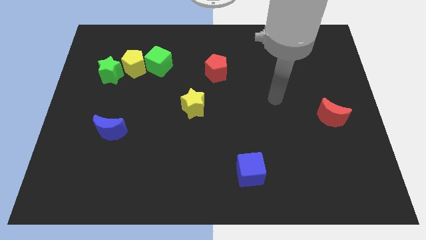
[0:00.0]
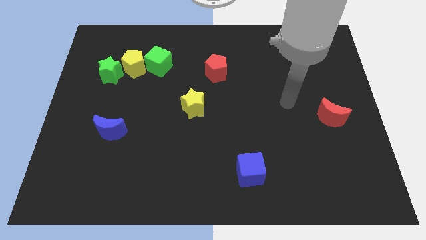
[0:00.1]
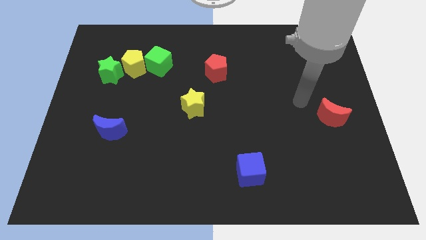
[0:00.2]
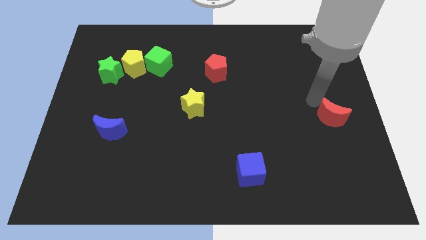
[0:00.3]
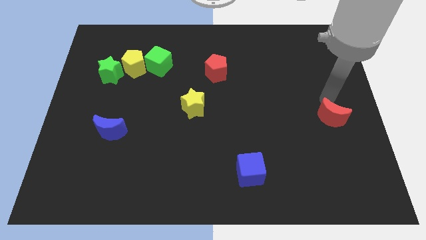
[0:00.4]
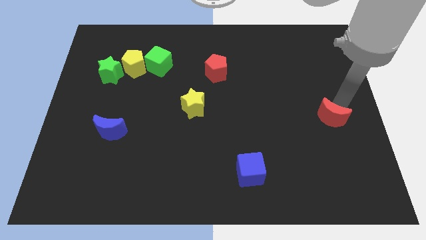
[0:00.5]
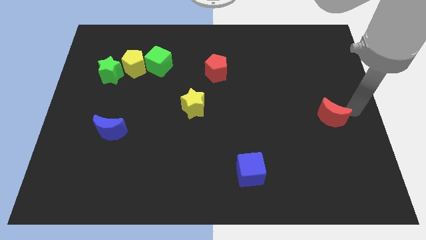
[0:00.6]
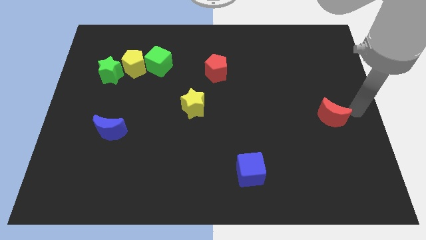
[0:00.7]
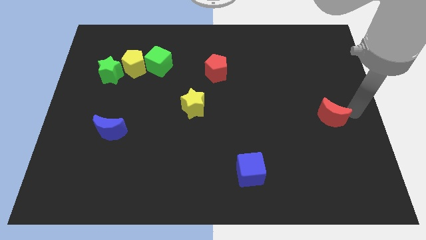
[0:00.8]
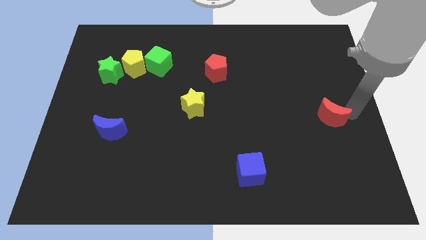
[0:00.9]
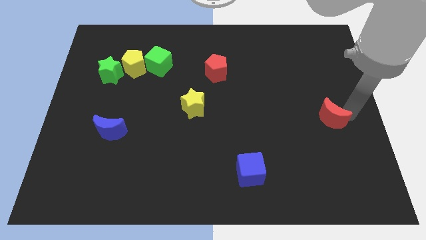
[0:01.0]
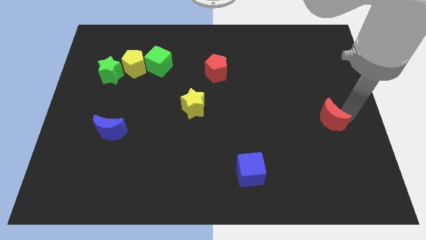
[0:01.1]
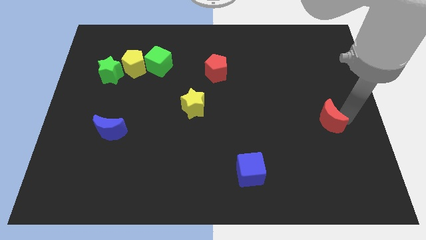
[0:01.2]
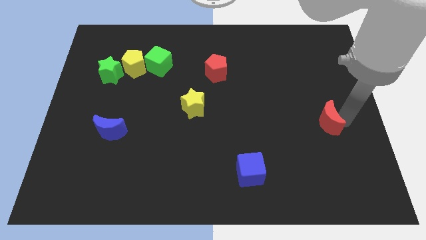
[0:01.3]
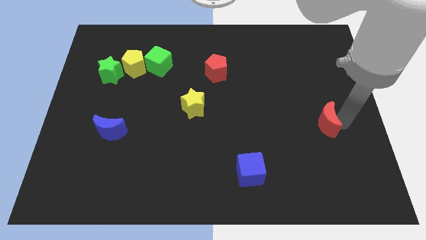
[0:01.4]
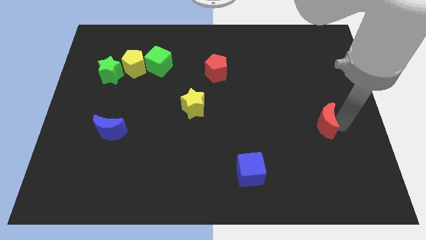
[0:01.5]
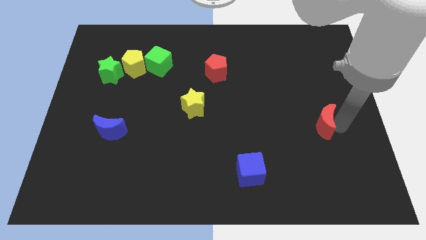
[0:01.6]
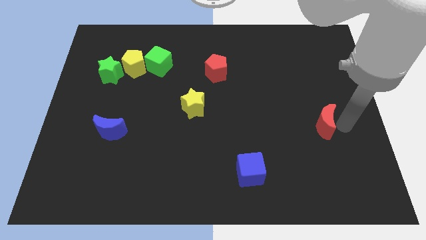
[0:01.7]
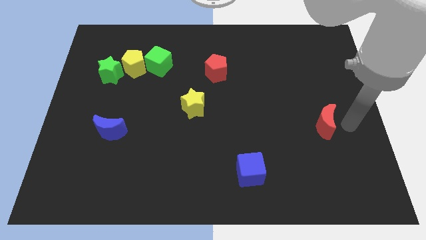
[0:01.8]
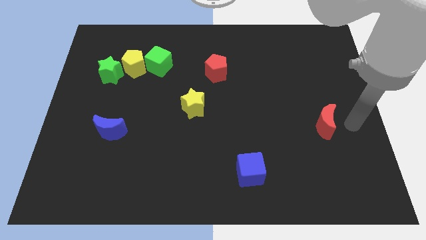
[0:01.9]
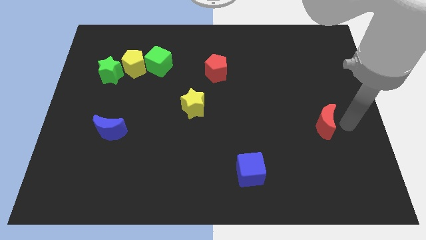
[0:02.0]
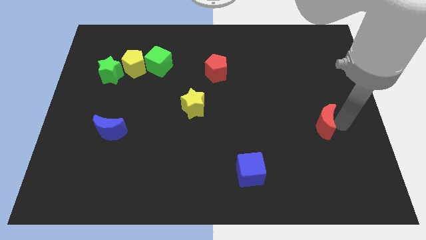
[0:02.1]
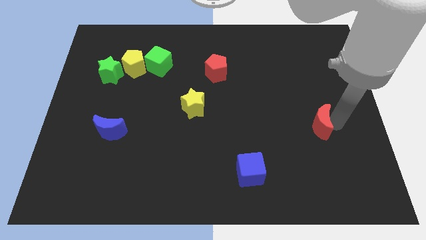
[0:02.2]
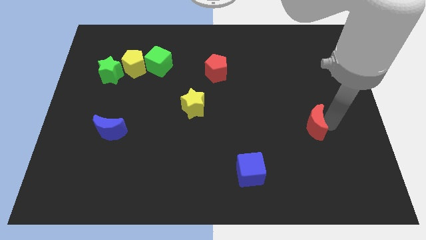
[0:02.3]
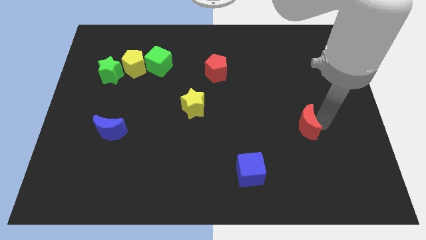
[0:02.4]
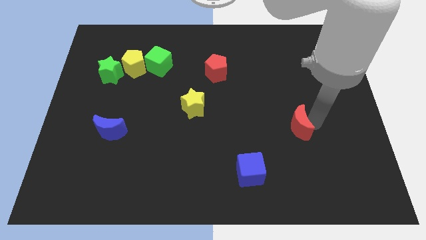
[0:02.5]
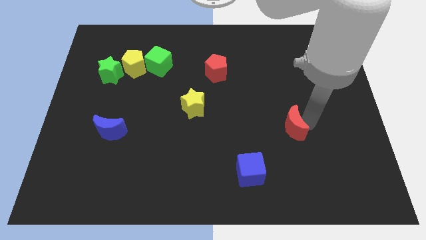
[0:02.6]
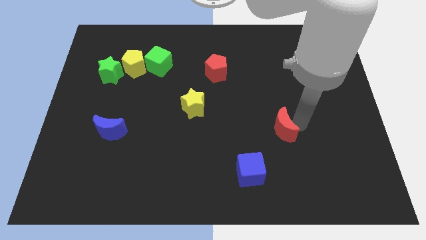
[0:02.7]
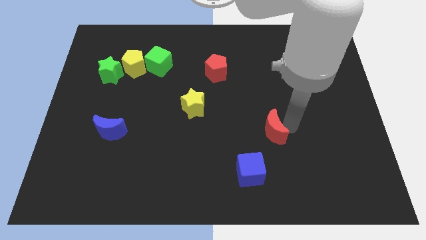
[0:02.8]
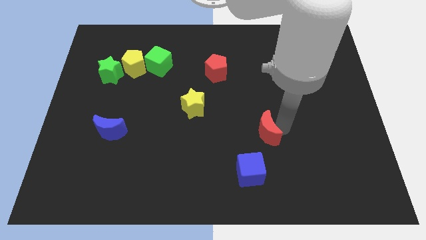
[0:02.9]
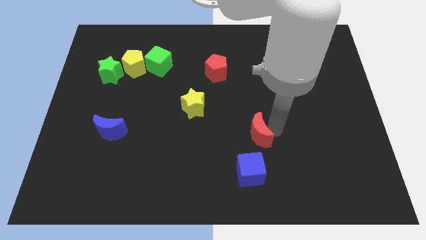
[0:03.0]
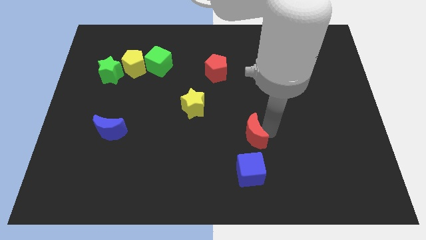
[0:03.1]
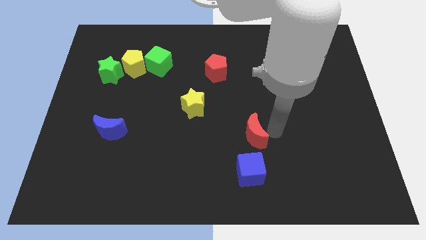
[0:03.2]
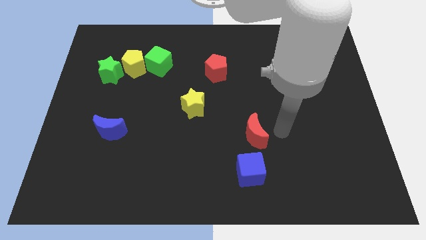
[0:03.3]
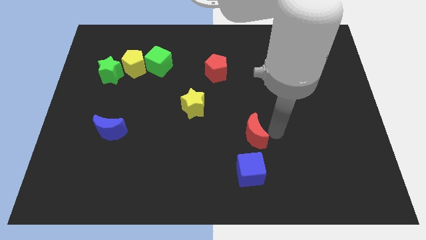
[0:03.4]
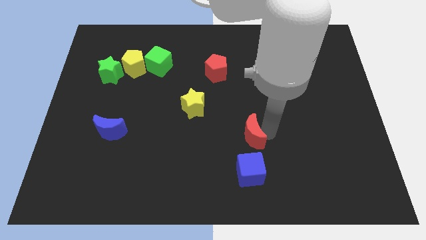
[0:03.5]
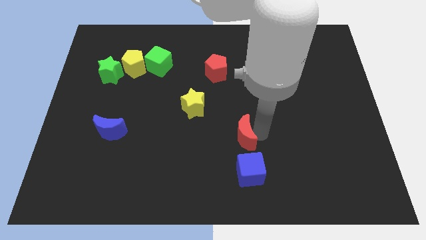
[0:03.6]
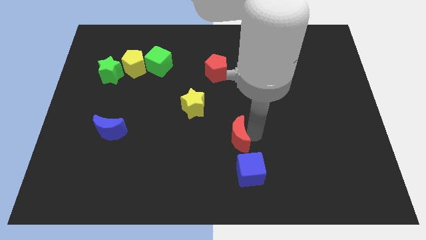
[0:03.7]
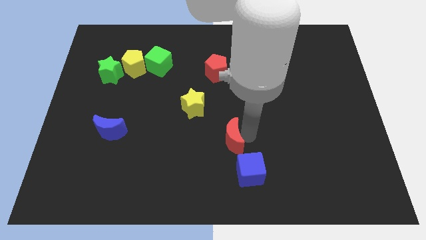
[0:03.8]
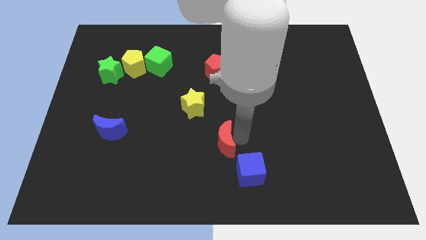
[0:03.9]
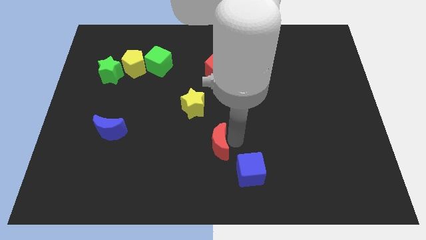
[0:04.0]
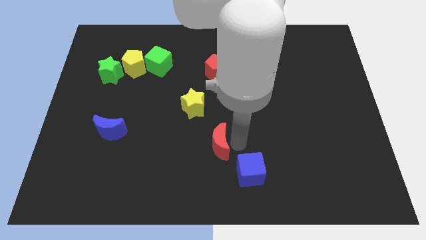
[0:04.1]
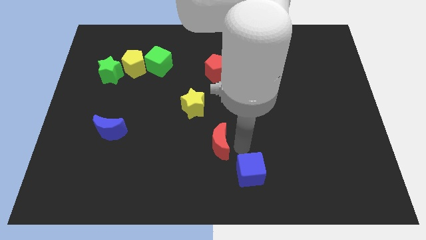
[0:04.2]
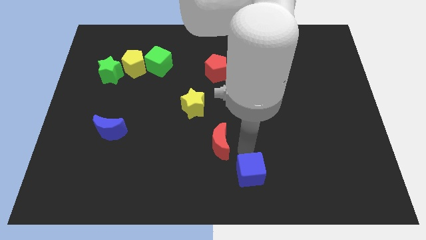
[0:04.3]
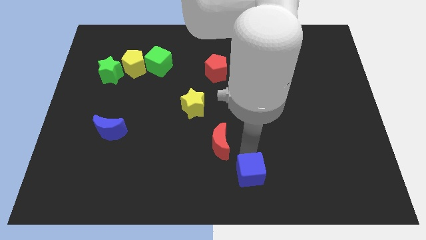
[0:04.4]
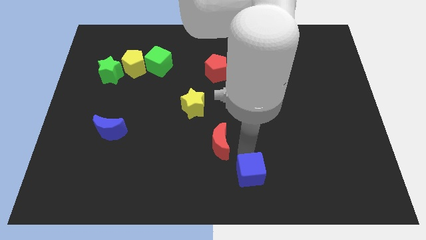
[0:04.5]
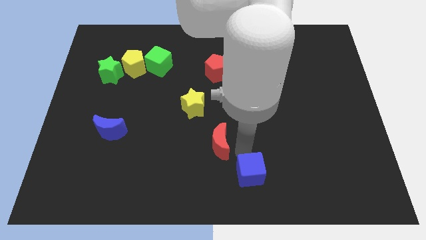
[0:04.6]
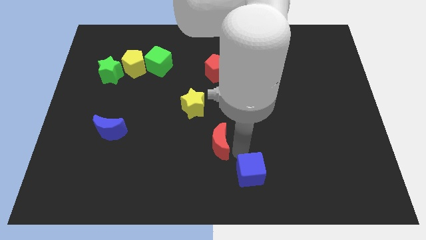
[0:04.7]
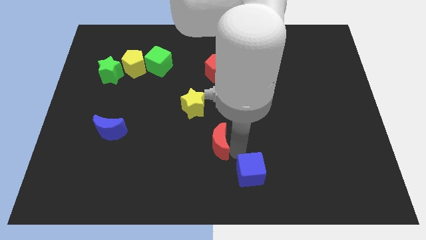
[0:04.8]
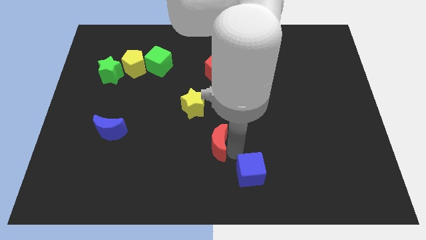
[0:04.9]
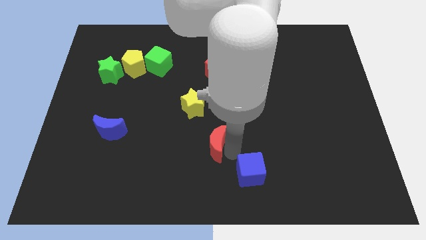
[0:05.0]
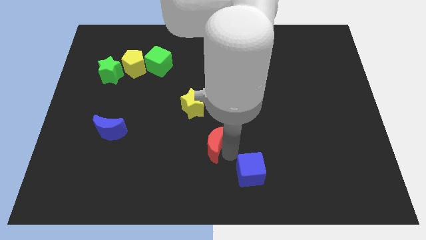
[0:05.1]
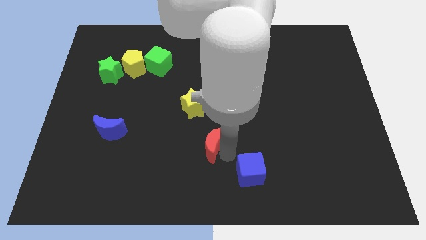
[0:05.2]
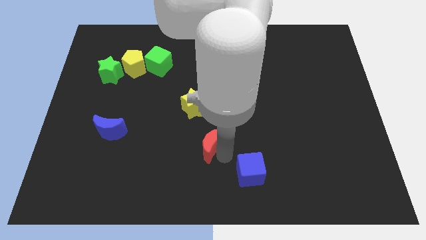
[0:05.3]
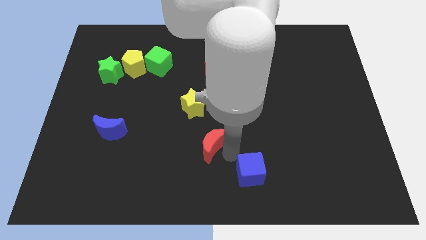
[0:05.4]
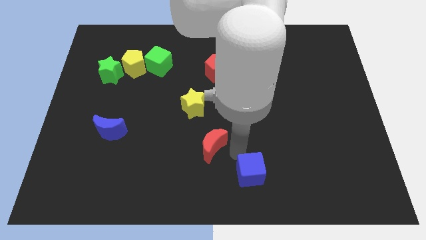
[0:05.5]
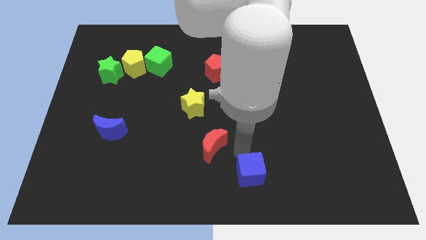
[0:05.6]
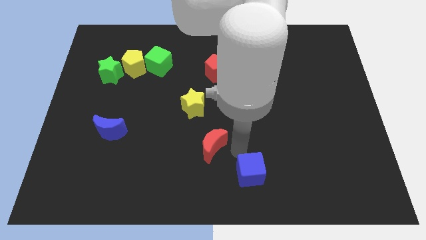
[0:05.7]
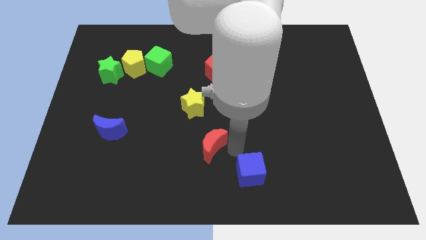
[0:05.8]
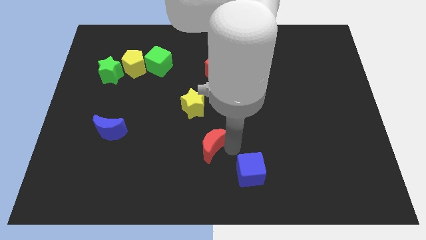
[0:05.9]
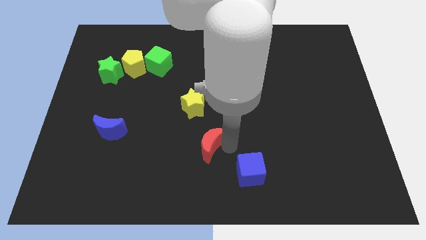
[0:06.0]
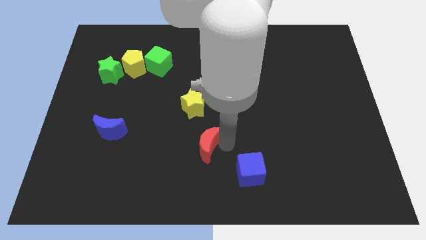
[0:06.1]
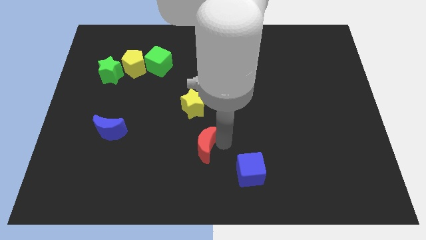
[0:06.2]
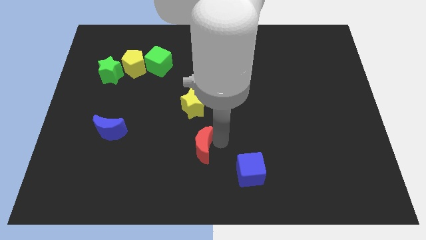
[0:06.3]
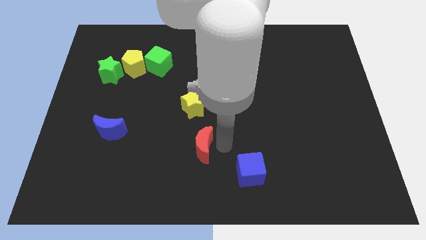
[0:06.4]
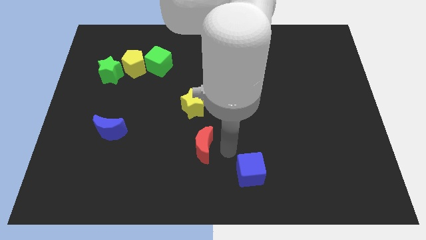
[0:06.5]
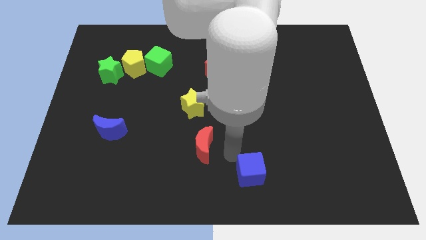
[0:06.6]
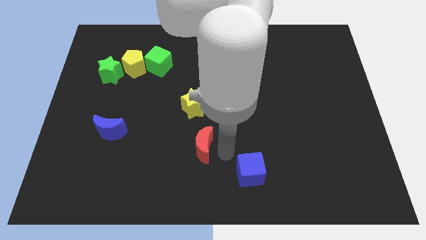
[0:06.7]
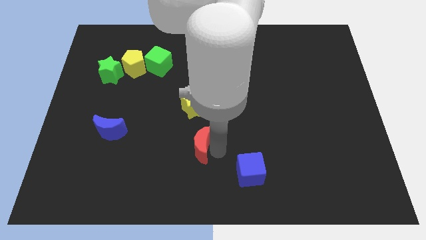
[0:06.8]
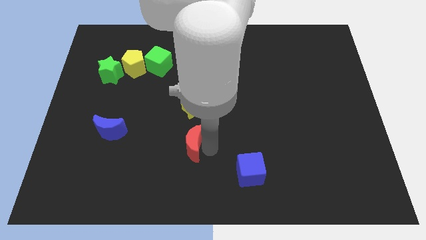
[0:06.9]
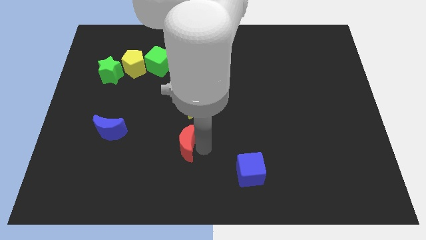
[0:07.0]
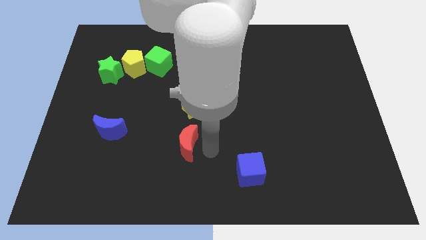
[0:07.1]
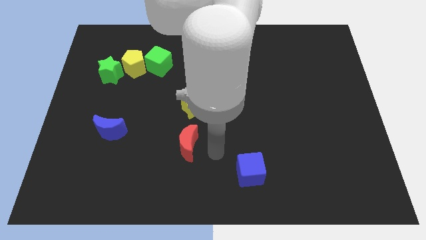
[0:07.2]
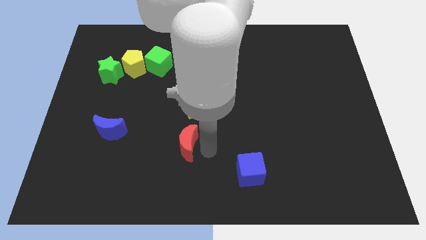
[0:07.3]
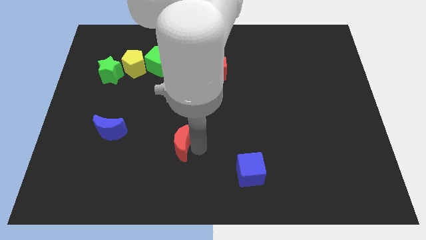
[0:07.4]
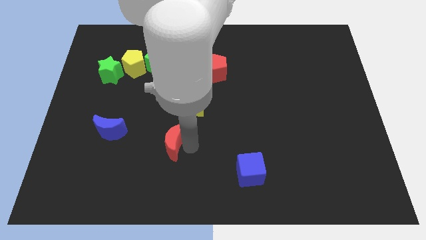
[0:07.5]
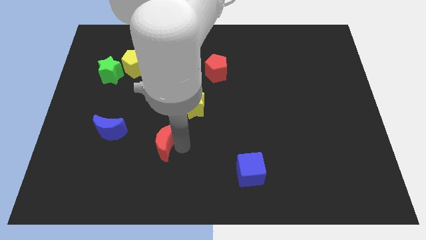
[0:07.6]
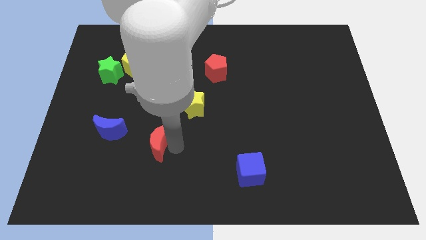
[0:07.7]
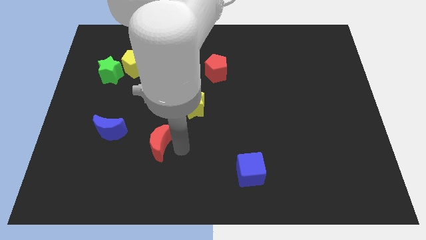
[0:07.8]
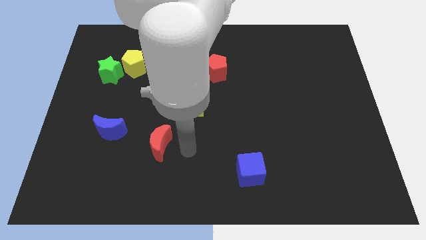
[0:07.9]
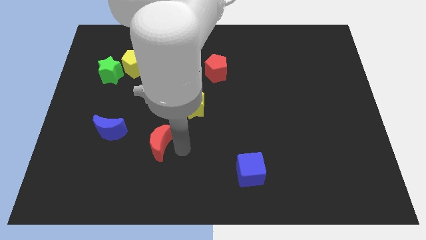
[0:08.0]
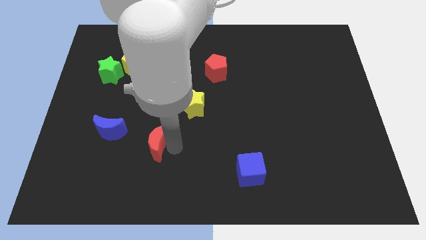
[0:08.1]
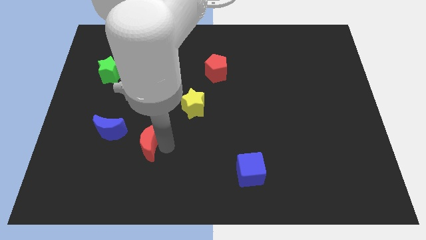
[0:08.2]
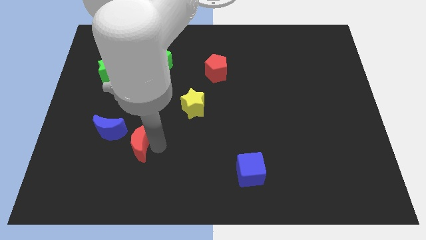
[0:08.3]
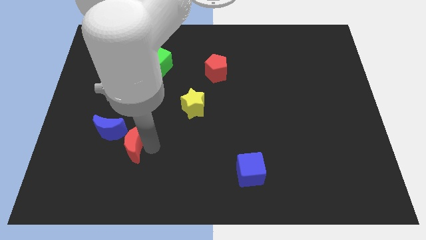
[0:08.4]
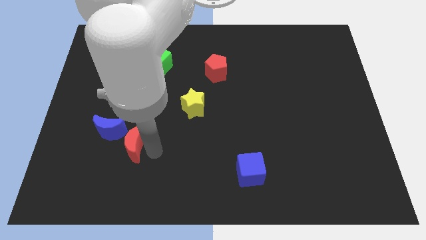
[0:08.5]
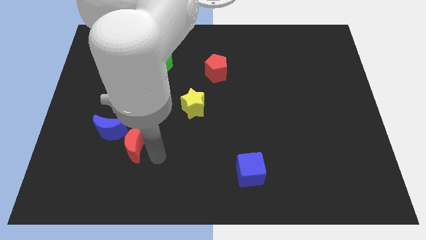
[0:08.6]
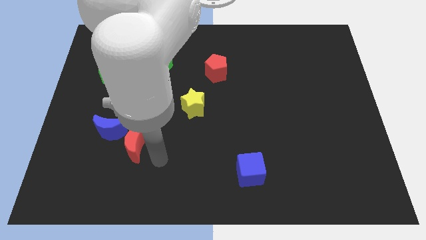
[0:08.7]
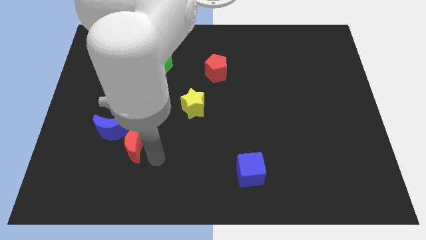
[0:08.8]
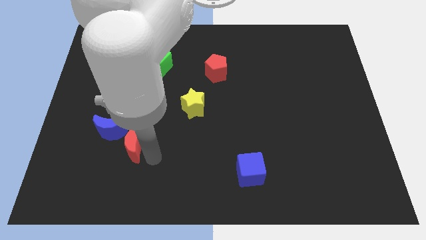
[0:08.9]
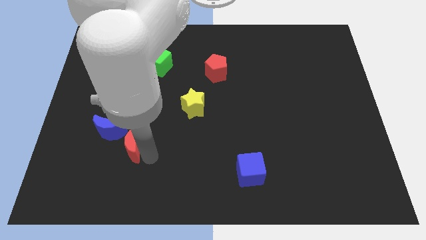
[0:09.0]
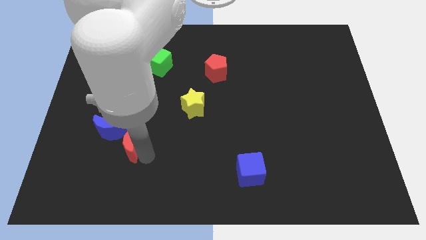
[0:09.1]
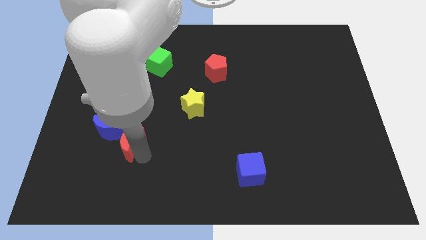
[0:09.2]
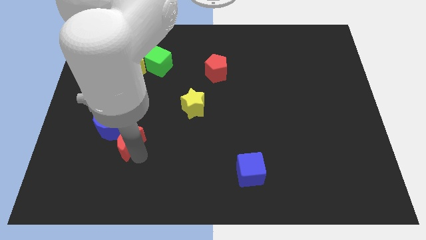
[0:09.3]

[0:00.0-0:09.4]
put the red moon close to the blue moon
